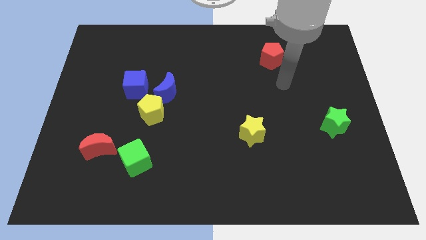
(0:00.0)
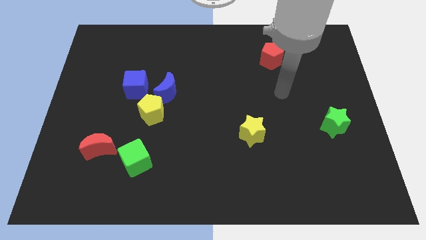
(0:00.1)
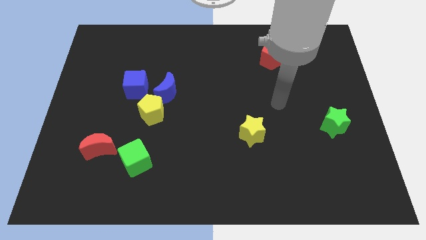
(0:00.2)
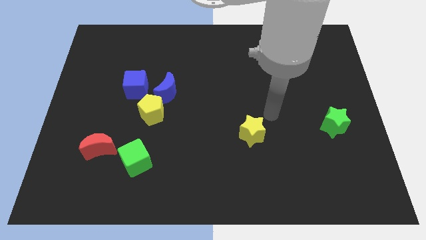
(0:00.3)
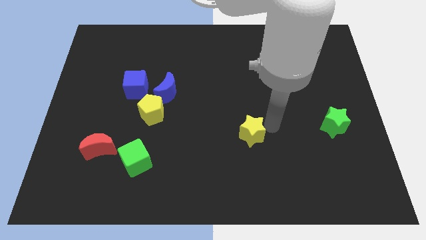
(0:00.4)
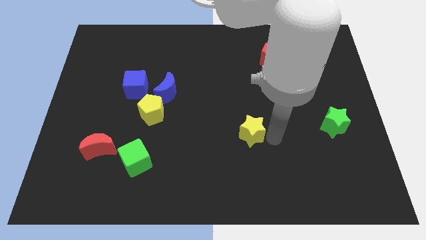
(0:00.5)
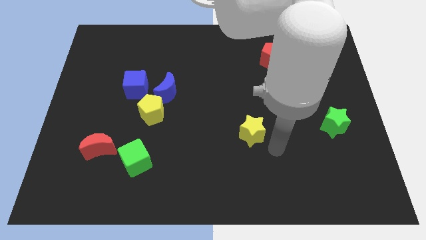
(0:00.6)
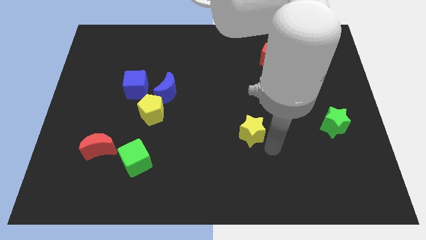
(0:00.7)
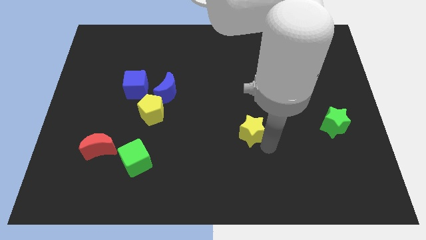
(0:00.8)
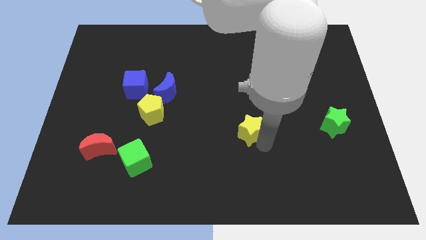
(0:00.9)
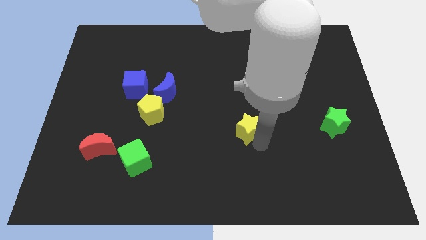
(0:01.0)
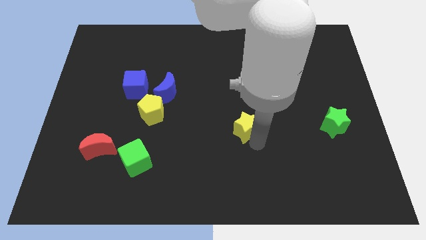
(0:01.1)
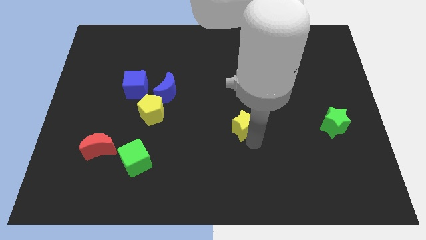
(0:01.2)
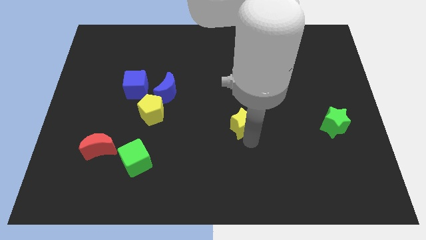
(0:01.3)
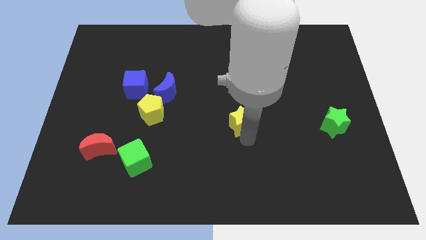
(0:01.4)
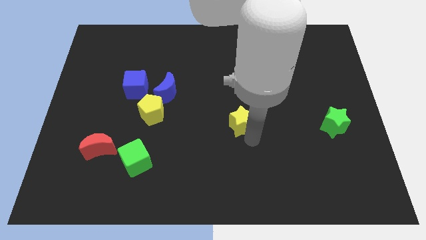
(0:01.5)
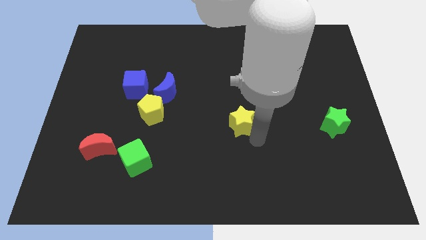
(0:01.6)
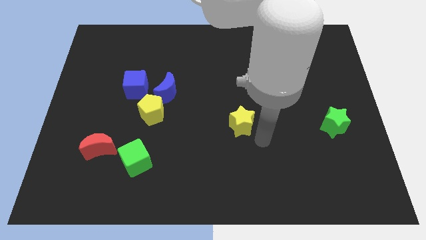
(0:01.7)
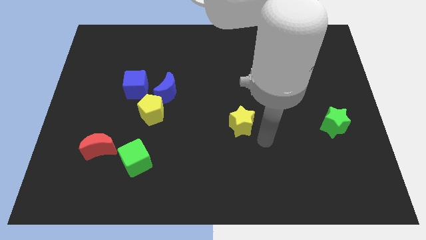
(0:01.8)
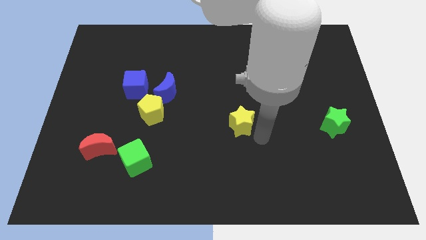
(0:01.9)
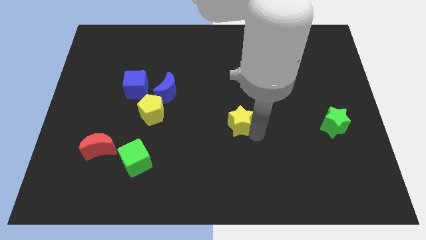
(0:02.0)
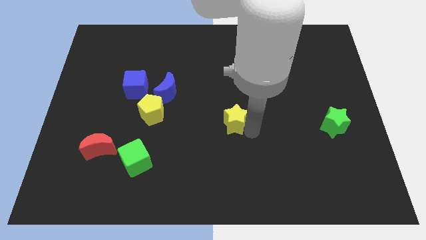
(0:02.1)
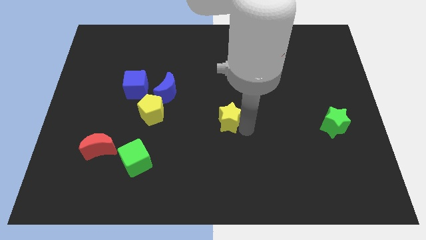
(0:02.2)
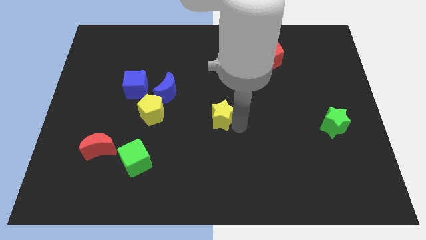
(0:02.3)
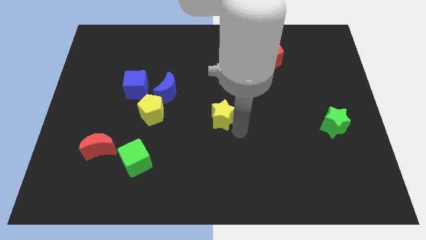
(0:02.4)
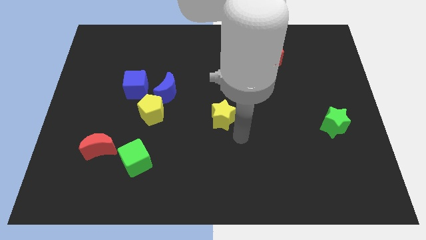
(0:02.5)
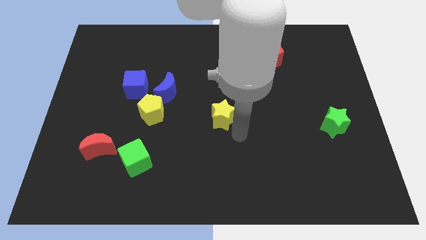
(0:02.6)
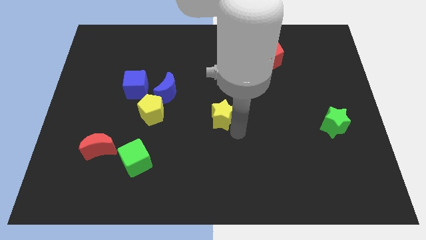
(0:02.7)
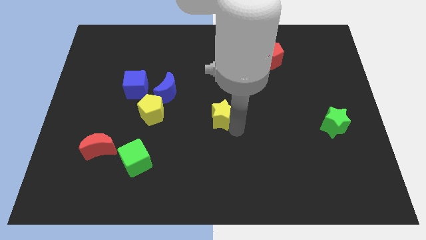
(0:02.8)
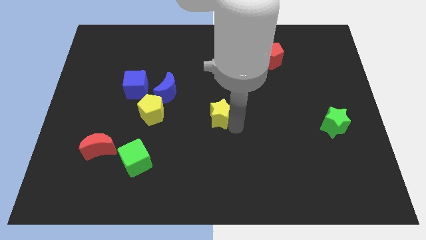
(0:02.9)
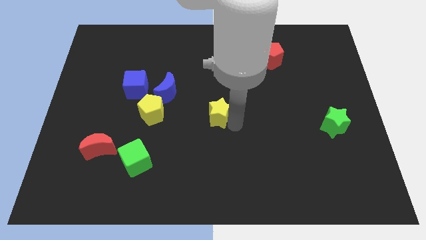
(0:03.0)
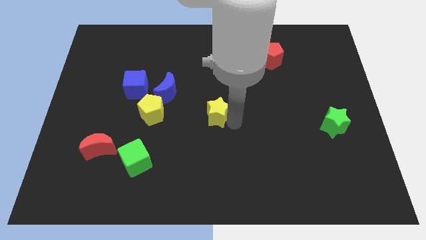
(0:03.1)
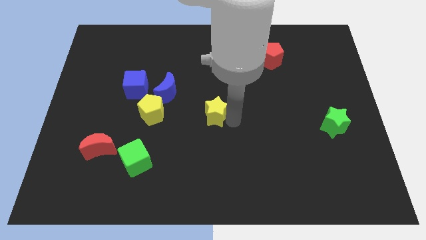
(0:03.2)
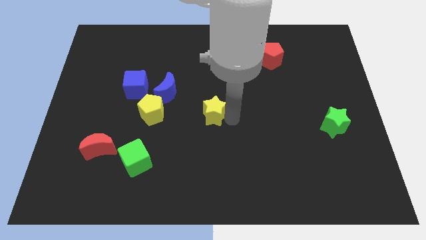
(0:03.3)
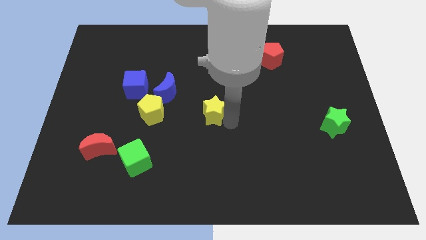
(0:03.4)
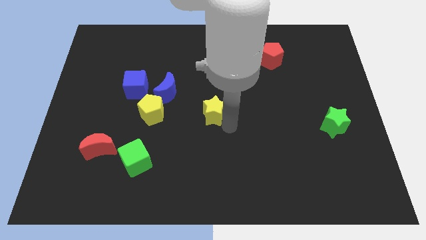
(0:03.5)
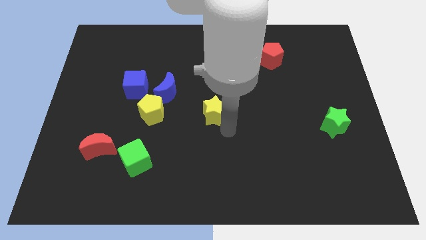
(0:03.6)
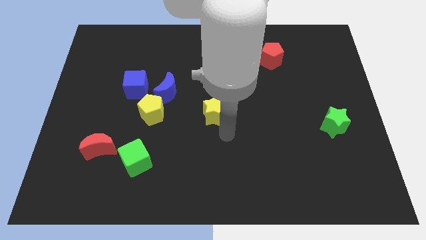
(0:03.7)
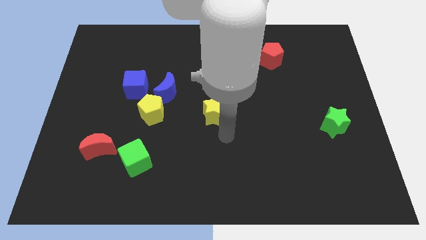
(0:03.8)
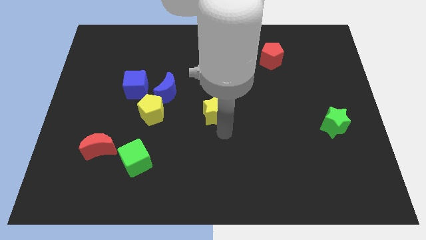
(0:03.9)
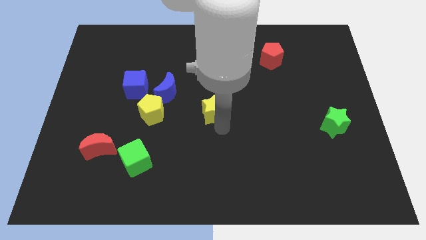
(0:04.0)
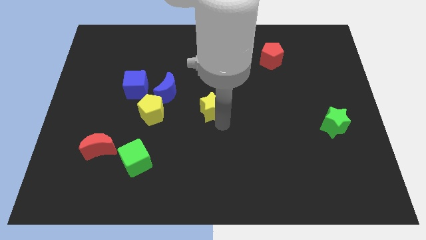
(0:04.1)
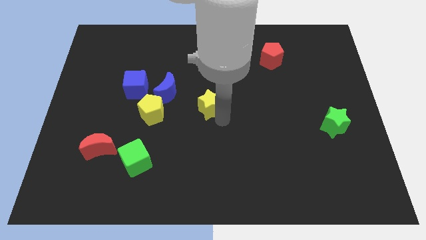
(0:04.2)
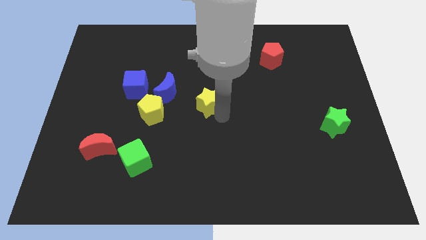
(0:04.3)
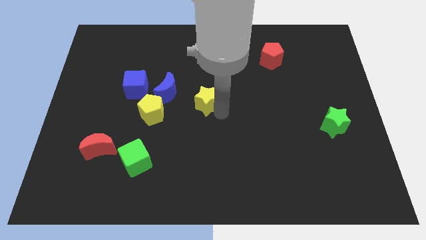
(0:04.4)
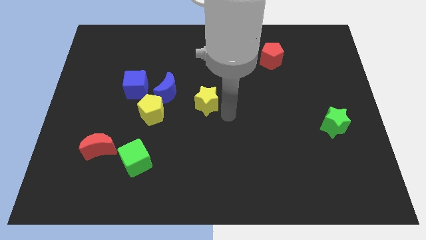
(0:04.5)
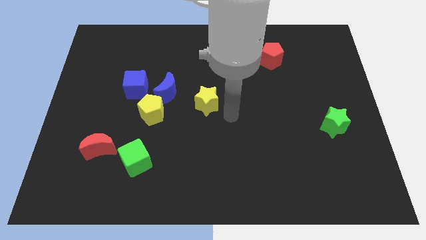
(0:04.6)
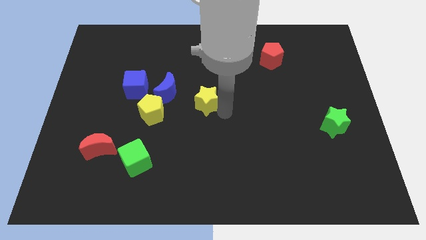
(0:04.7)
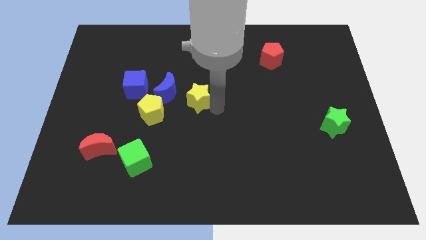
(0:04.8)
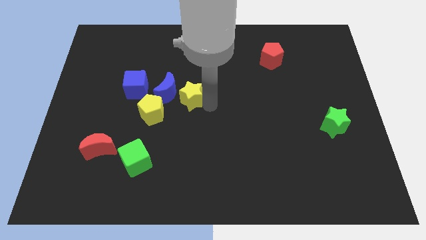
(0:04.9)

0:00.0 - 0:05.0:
put the yellow star right of the blue cube

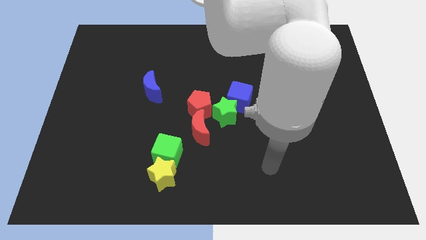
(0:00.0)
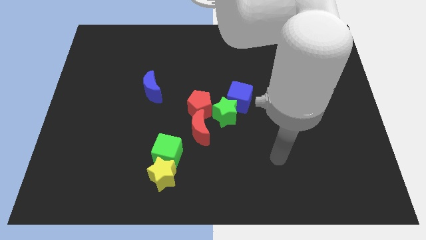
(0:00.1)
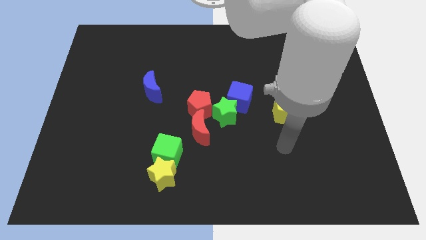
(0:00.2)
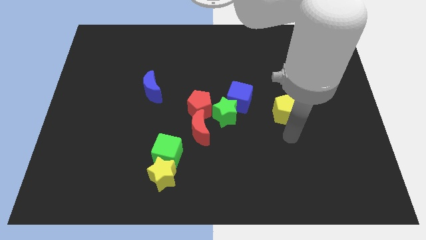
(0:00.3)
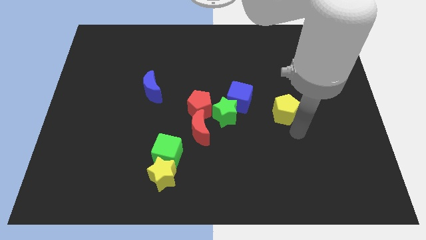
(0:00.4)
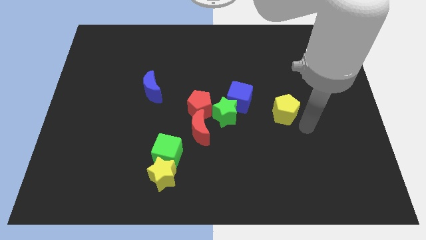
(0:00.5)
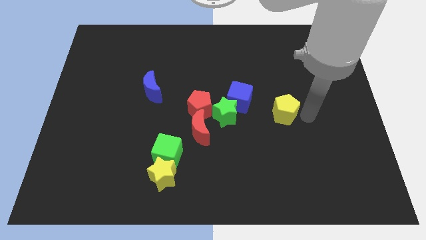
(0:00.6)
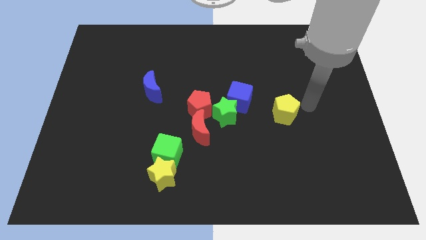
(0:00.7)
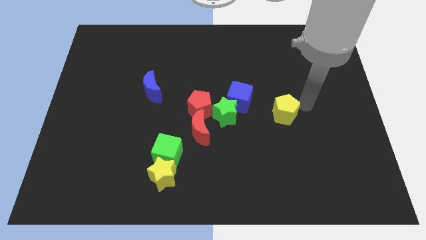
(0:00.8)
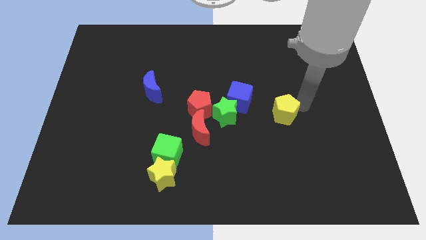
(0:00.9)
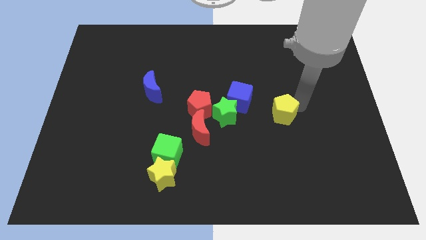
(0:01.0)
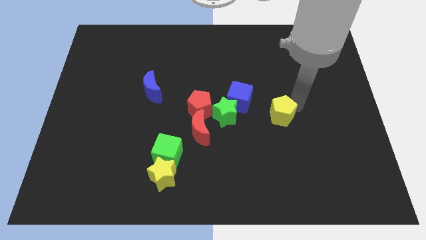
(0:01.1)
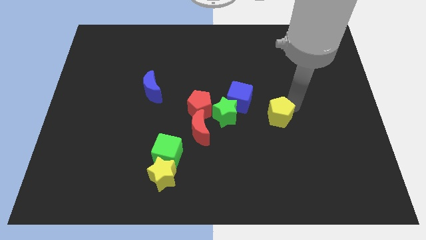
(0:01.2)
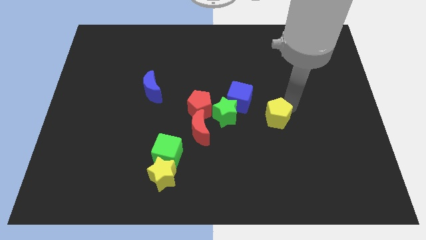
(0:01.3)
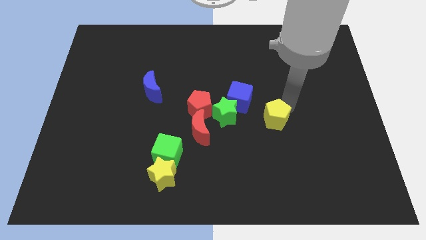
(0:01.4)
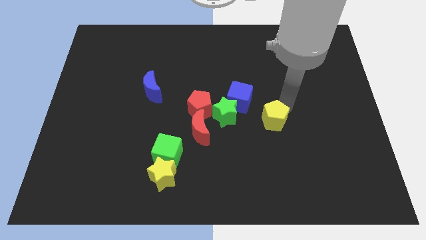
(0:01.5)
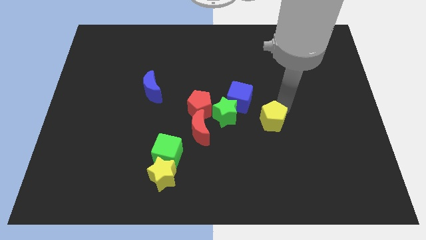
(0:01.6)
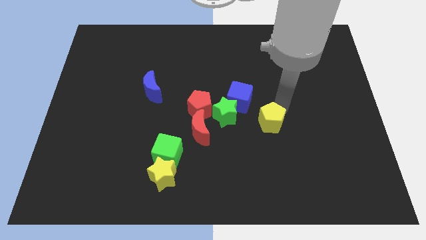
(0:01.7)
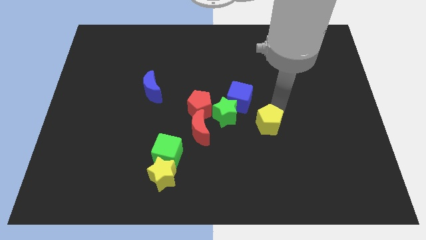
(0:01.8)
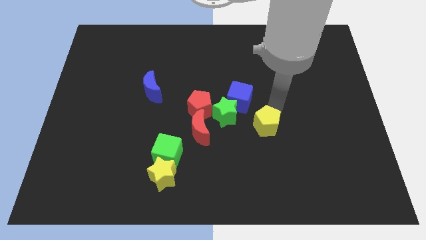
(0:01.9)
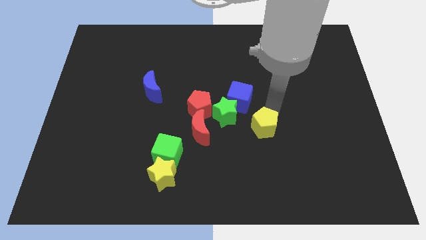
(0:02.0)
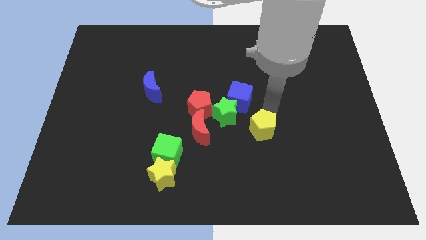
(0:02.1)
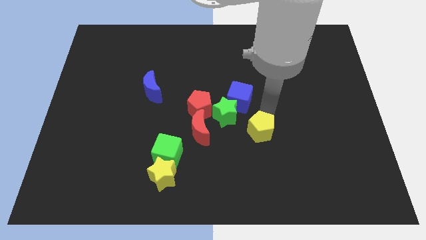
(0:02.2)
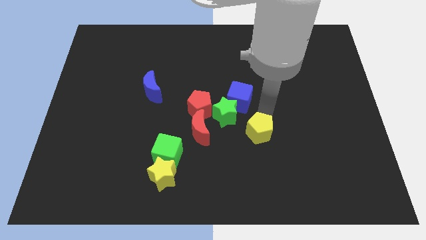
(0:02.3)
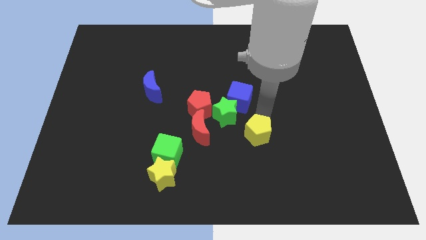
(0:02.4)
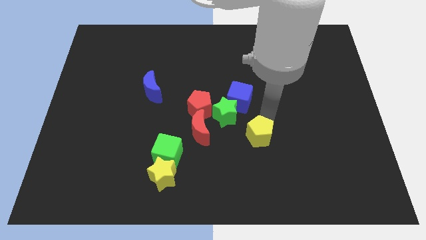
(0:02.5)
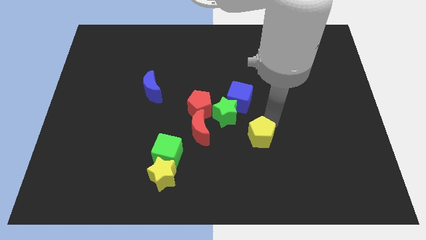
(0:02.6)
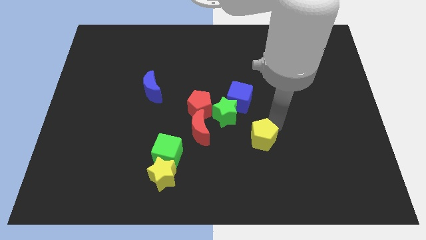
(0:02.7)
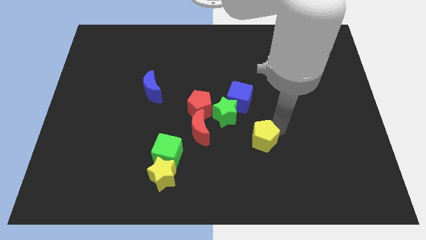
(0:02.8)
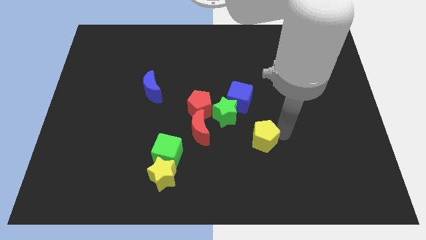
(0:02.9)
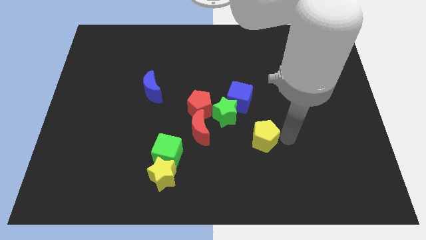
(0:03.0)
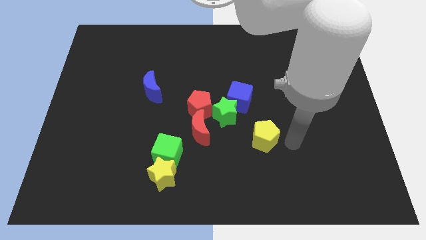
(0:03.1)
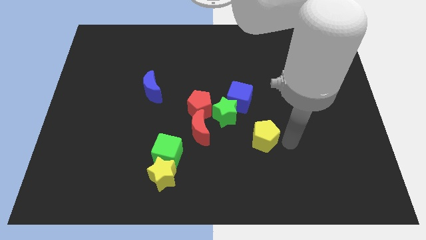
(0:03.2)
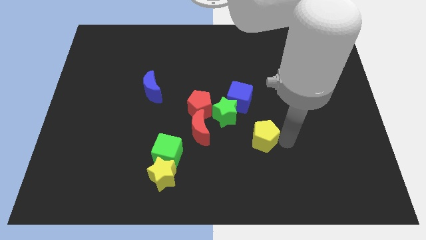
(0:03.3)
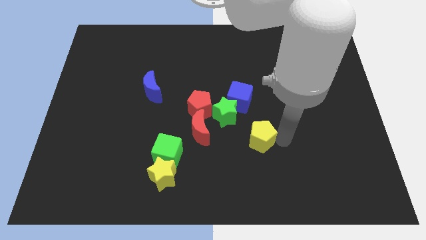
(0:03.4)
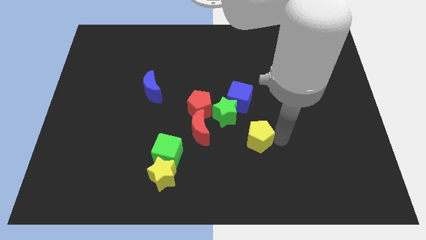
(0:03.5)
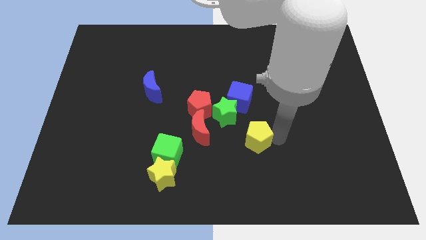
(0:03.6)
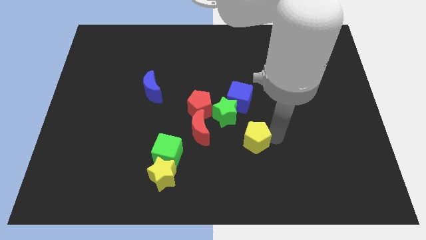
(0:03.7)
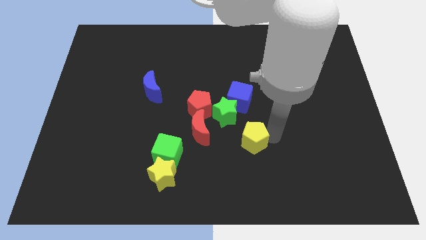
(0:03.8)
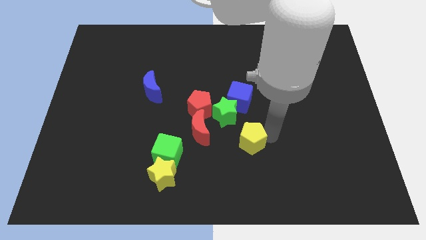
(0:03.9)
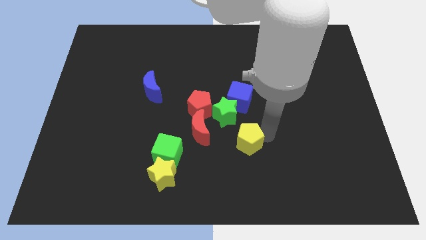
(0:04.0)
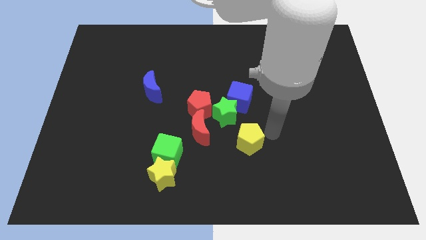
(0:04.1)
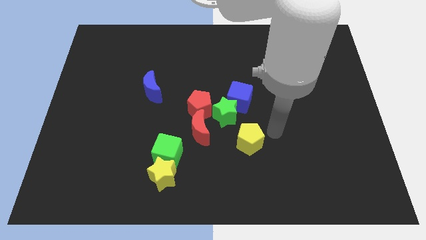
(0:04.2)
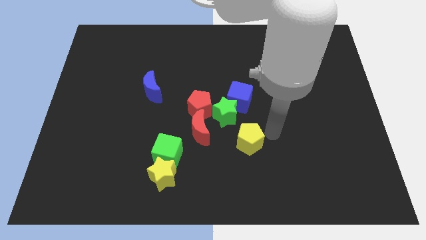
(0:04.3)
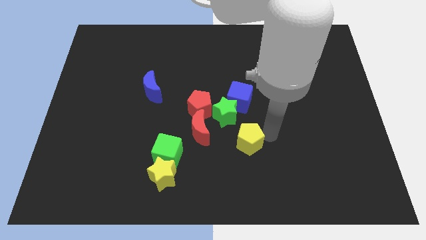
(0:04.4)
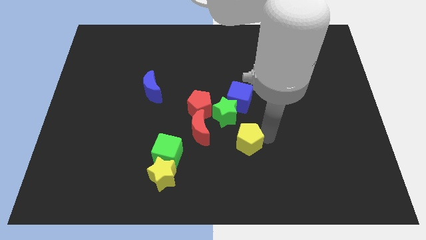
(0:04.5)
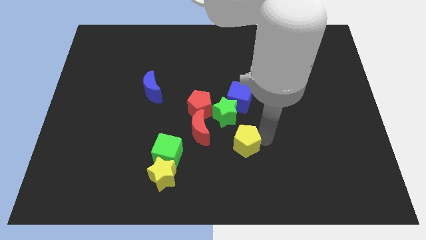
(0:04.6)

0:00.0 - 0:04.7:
put the yellow pentagon to the bottom right of the red moon
